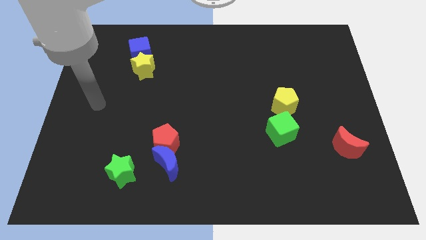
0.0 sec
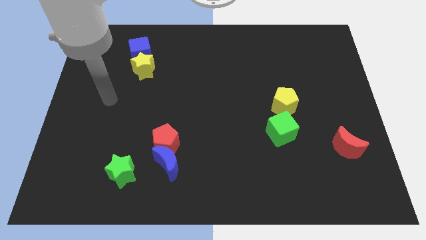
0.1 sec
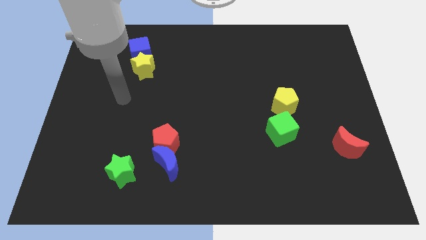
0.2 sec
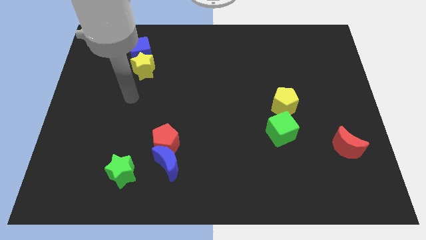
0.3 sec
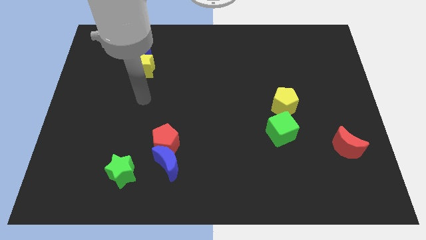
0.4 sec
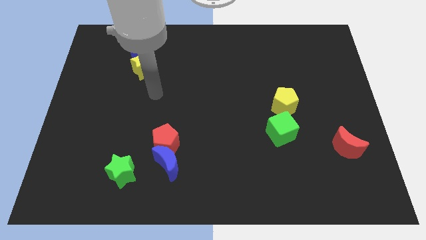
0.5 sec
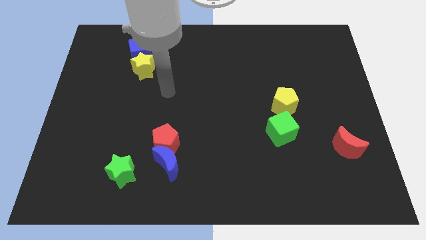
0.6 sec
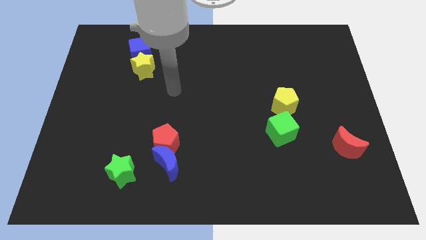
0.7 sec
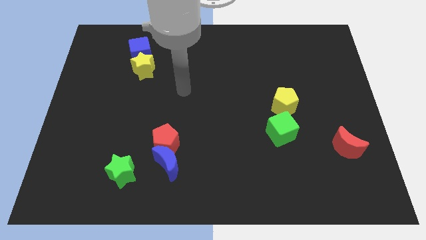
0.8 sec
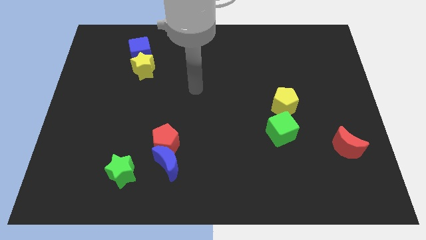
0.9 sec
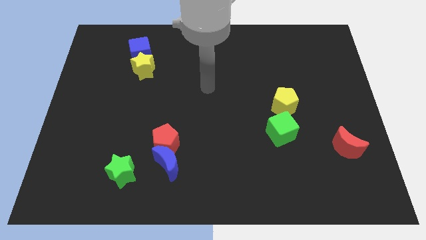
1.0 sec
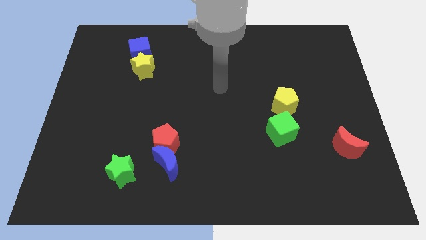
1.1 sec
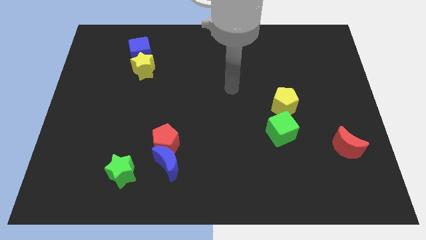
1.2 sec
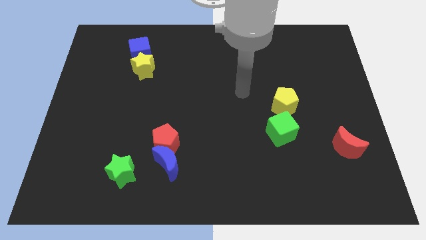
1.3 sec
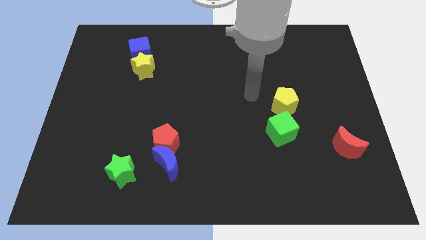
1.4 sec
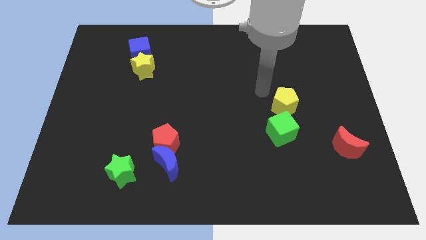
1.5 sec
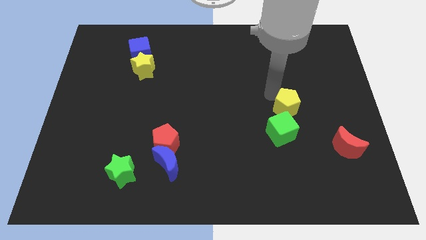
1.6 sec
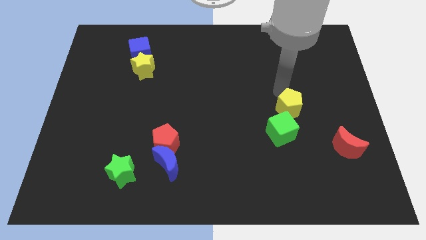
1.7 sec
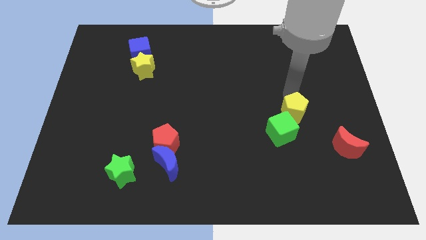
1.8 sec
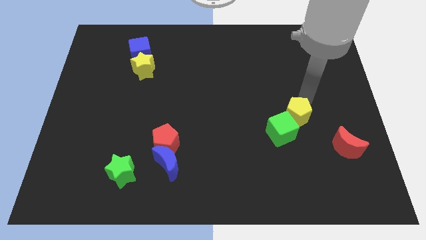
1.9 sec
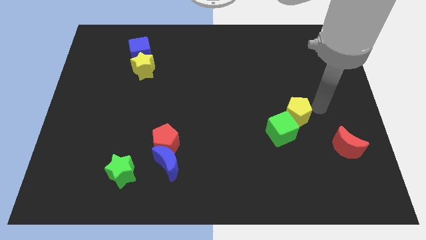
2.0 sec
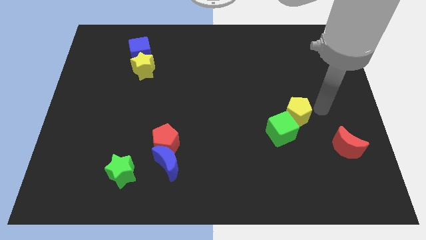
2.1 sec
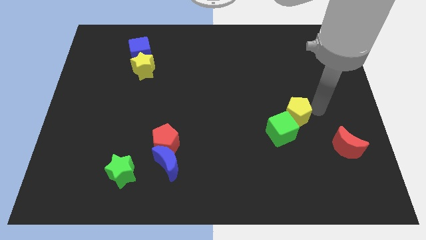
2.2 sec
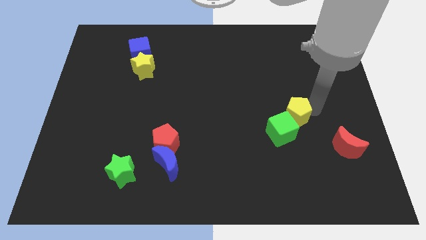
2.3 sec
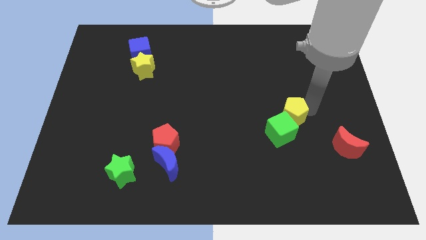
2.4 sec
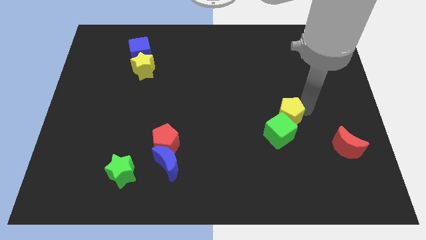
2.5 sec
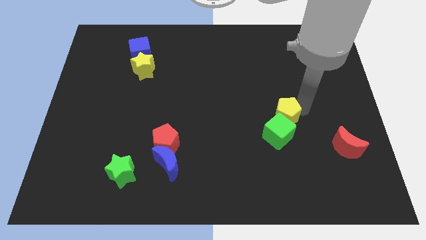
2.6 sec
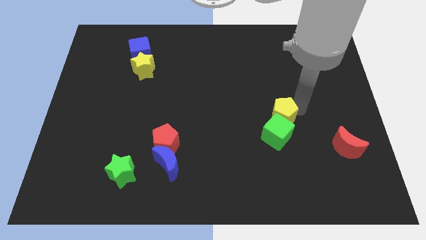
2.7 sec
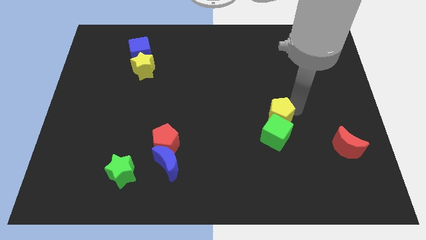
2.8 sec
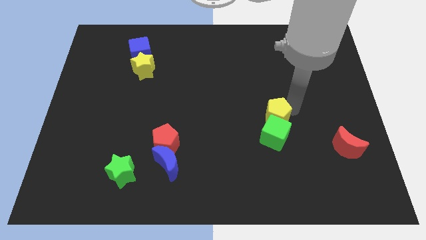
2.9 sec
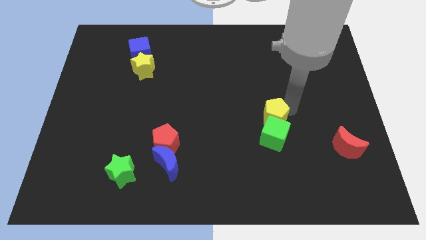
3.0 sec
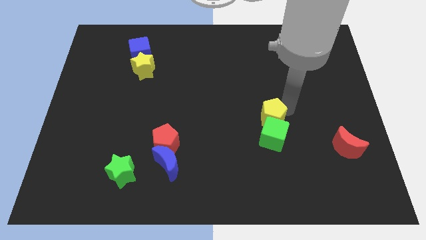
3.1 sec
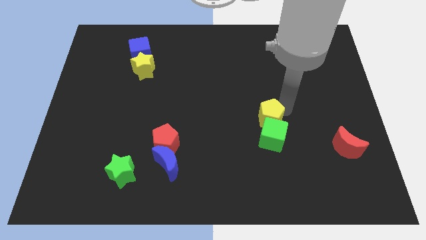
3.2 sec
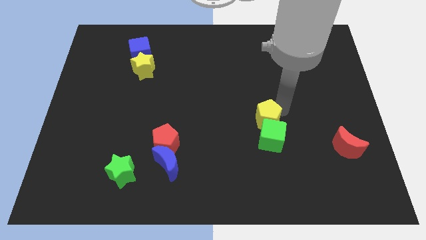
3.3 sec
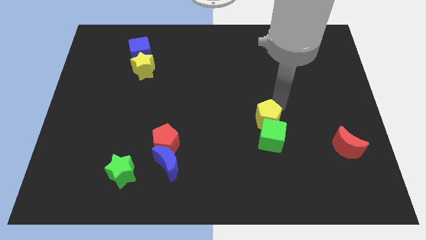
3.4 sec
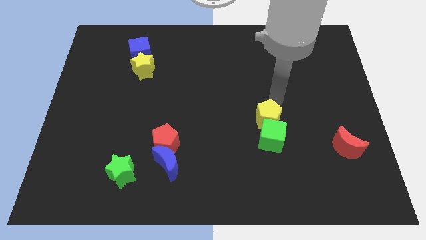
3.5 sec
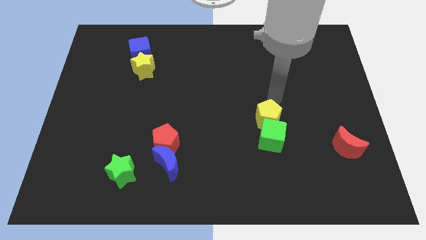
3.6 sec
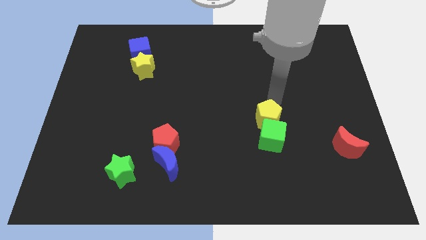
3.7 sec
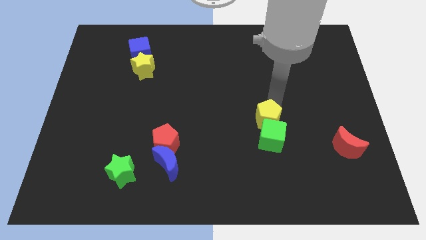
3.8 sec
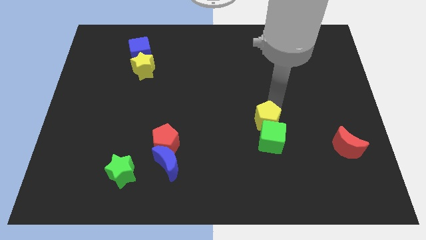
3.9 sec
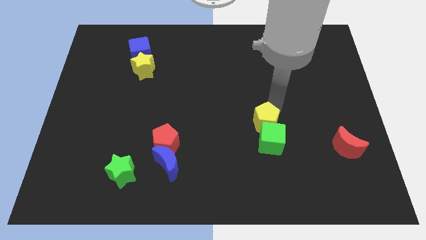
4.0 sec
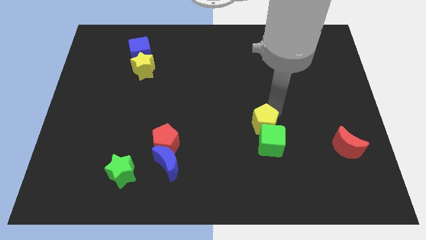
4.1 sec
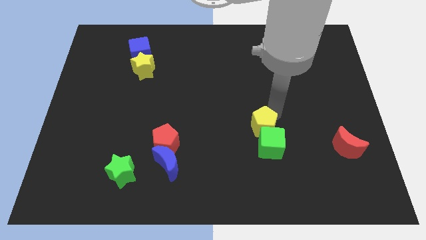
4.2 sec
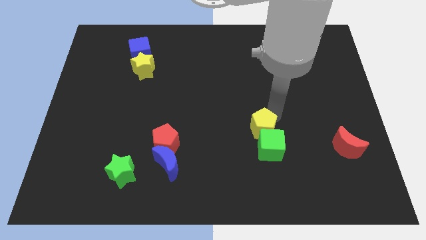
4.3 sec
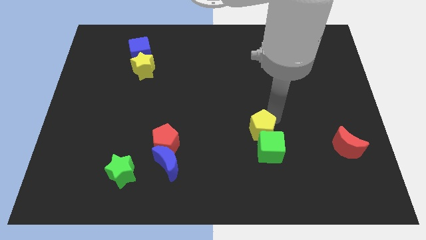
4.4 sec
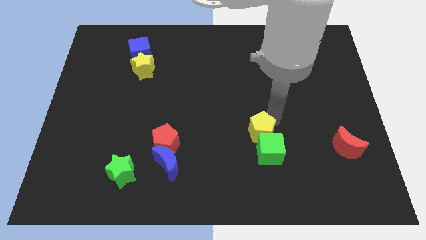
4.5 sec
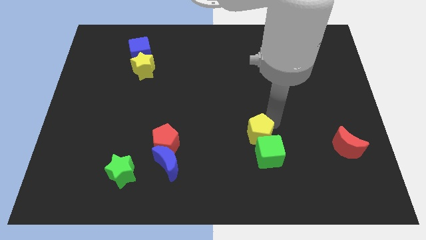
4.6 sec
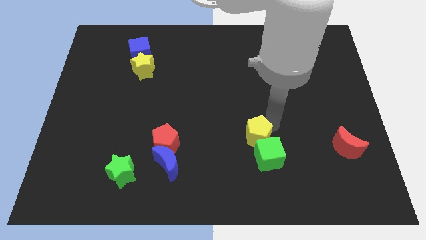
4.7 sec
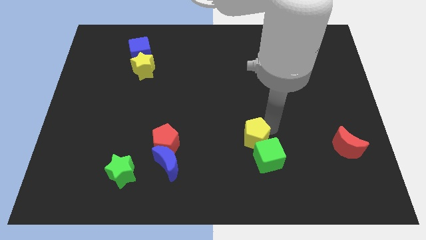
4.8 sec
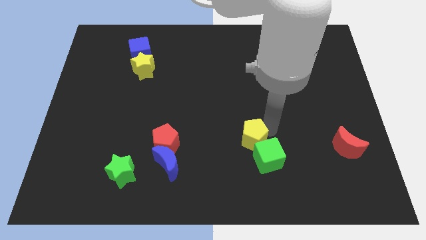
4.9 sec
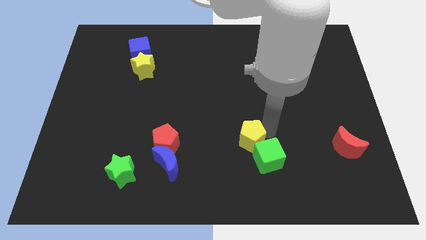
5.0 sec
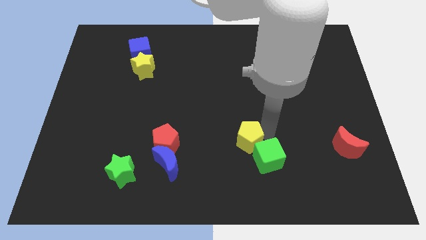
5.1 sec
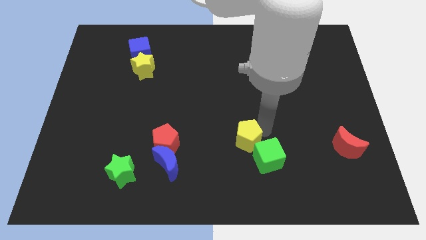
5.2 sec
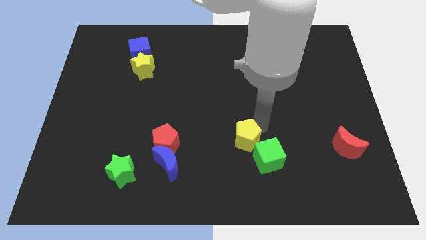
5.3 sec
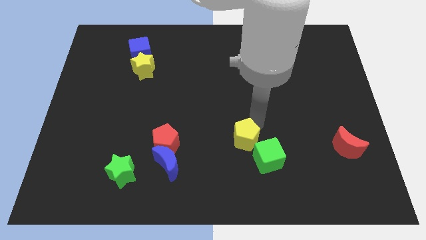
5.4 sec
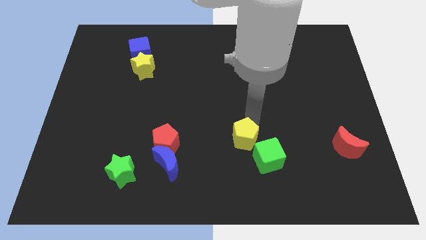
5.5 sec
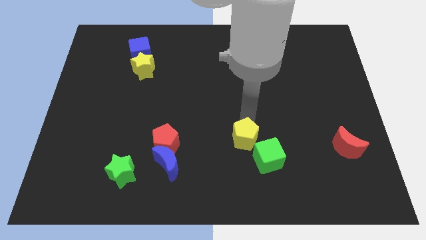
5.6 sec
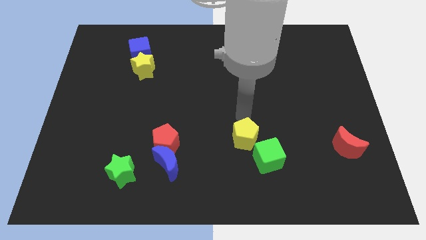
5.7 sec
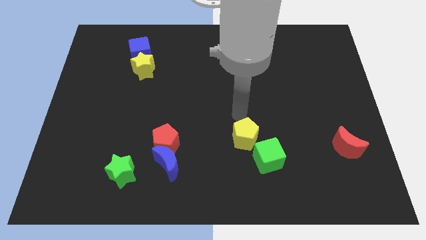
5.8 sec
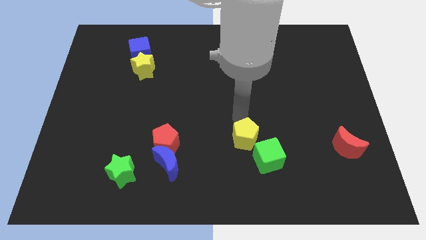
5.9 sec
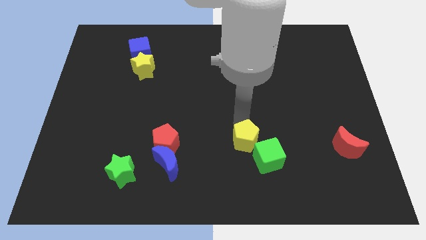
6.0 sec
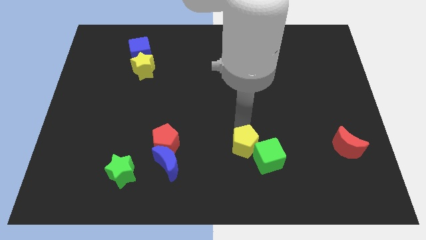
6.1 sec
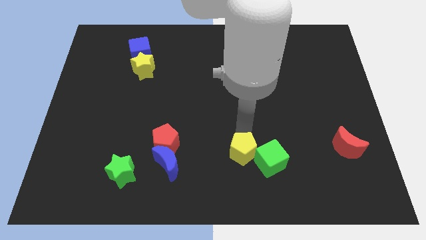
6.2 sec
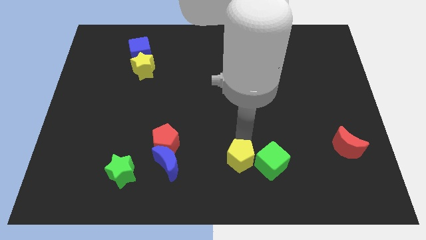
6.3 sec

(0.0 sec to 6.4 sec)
push the yellow pentagon to the bottom

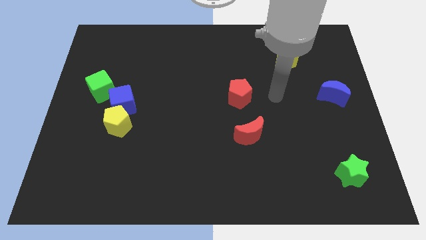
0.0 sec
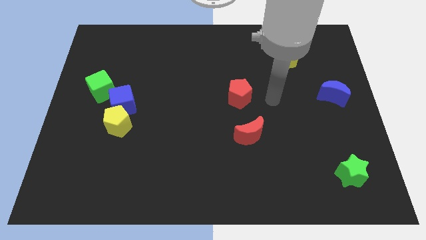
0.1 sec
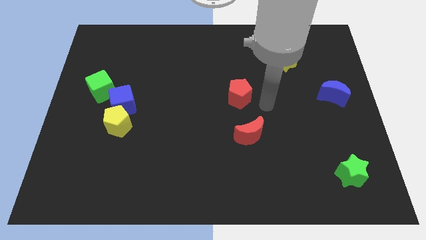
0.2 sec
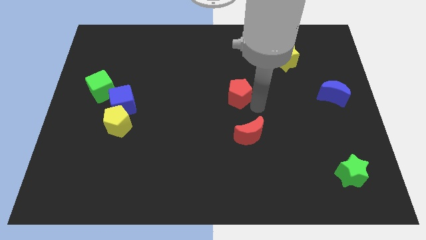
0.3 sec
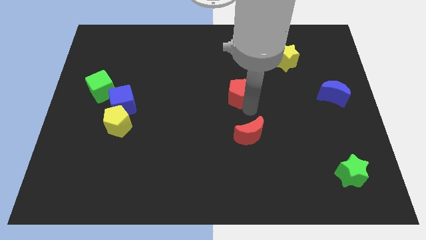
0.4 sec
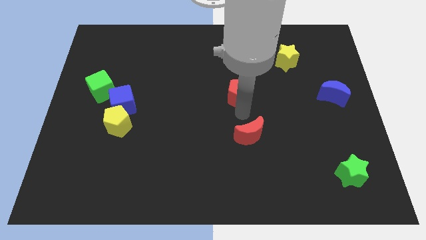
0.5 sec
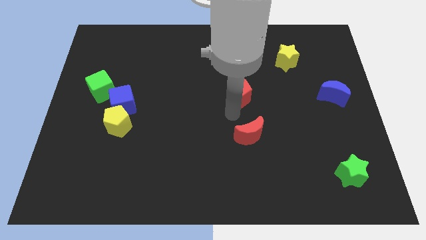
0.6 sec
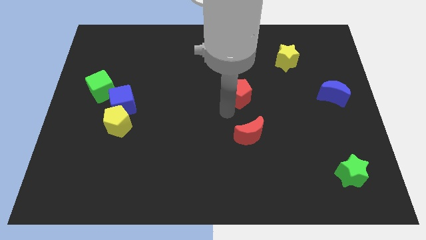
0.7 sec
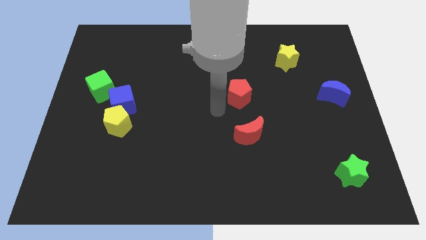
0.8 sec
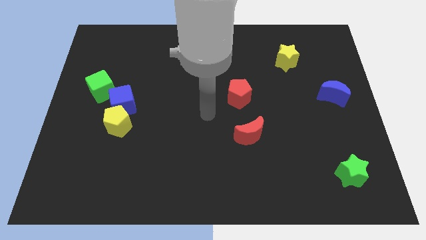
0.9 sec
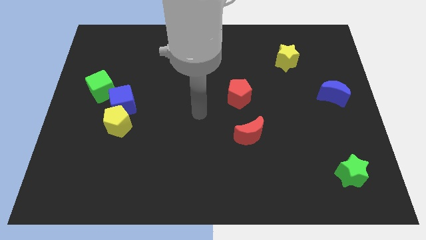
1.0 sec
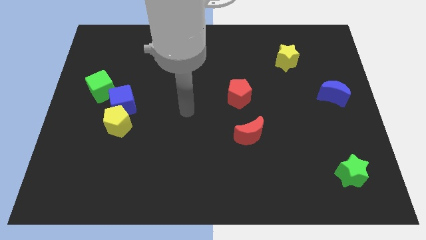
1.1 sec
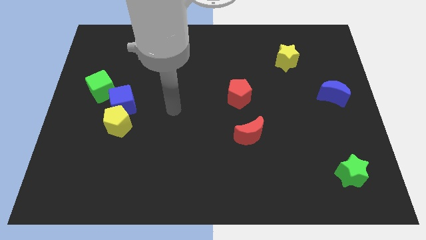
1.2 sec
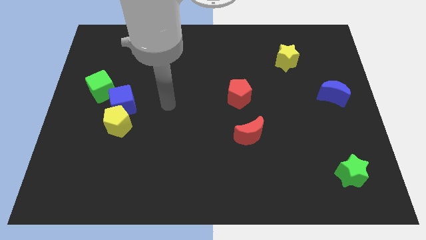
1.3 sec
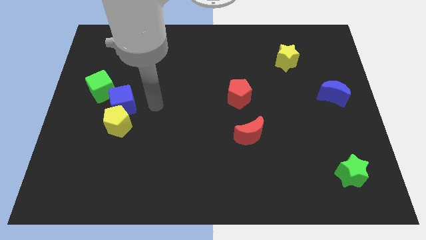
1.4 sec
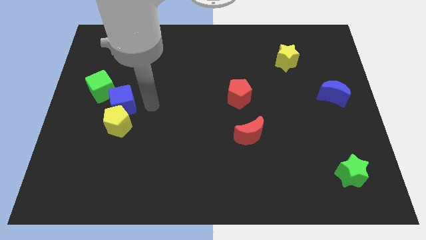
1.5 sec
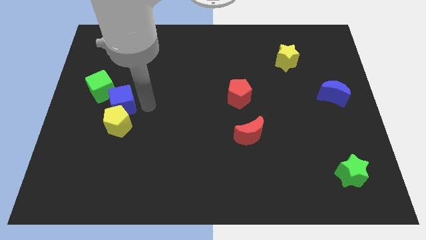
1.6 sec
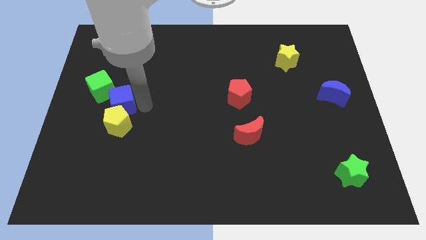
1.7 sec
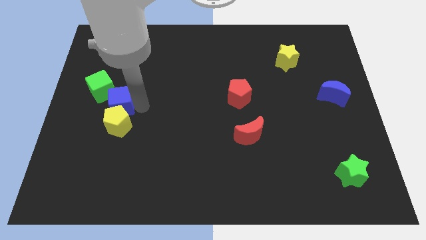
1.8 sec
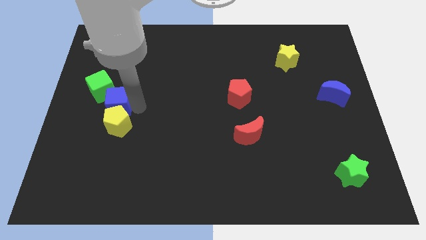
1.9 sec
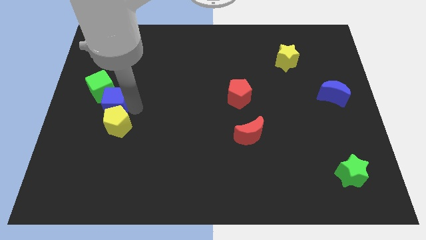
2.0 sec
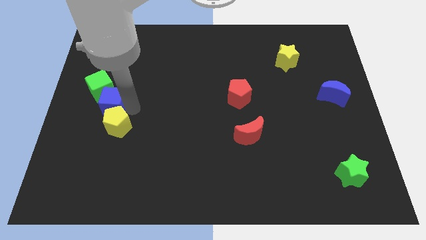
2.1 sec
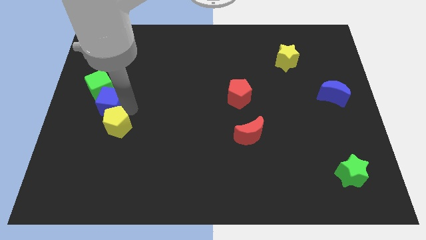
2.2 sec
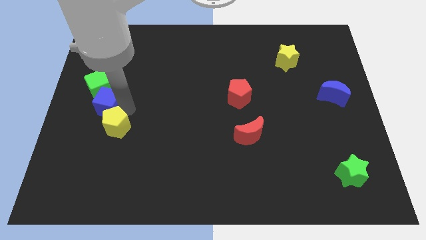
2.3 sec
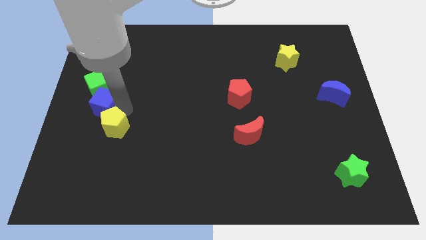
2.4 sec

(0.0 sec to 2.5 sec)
push the blue cube to the left side
